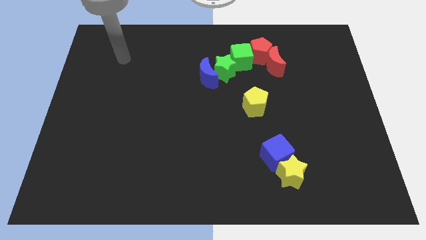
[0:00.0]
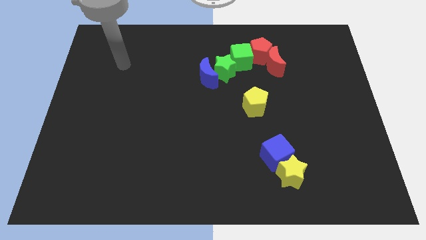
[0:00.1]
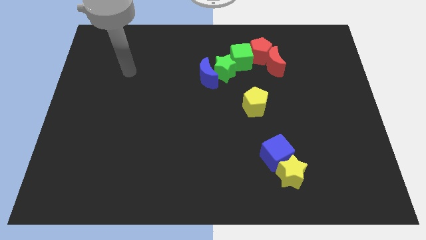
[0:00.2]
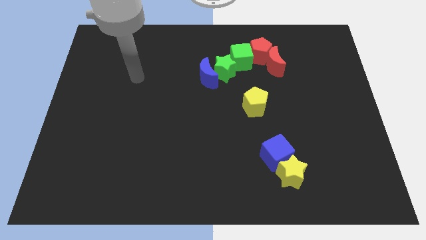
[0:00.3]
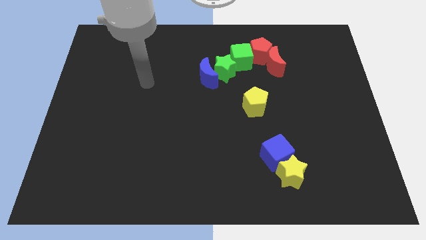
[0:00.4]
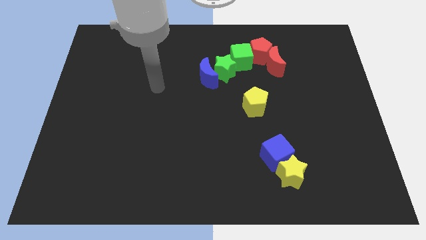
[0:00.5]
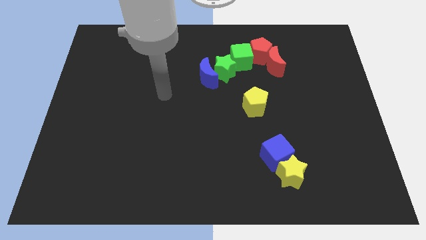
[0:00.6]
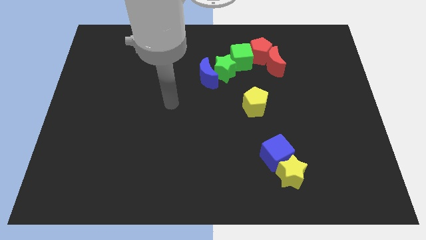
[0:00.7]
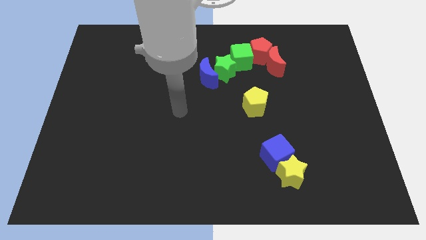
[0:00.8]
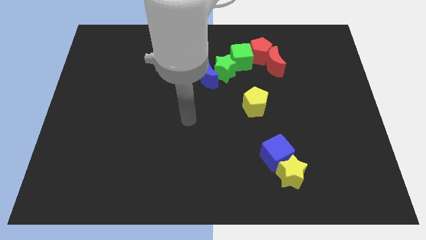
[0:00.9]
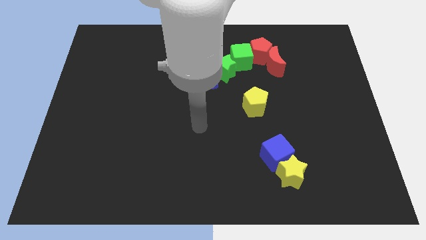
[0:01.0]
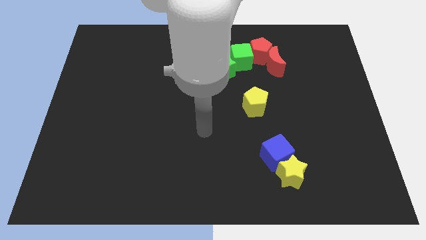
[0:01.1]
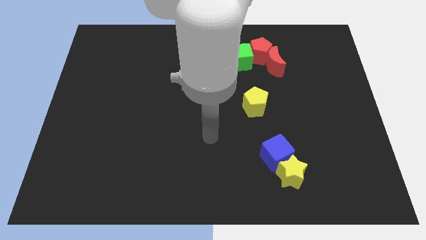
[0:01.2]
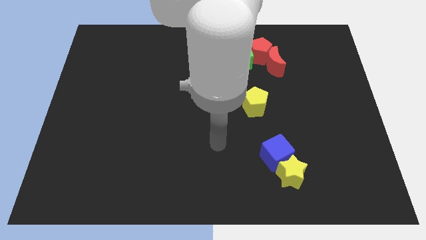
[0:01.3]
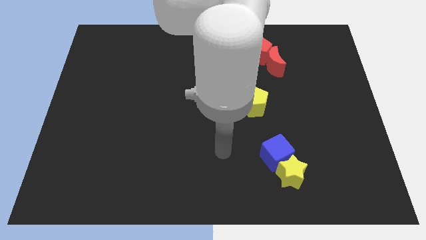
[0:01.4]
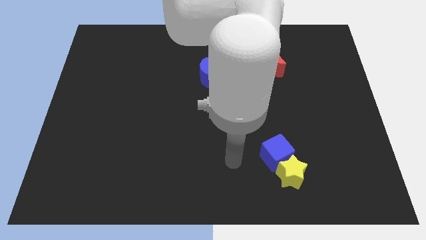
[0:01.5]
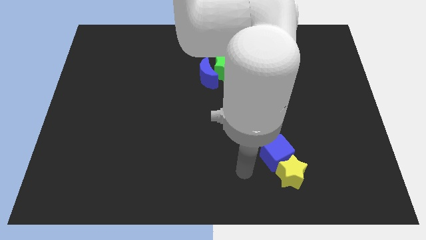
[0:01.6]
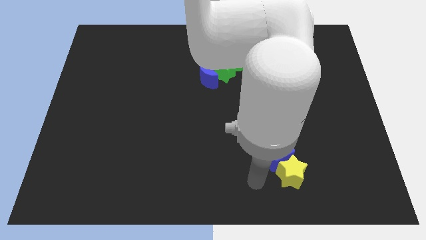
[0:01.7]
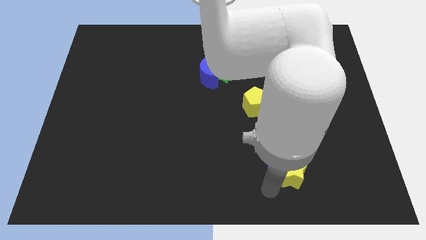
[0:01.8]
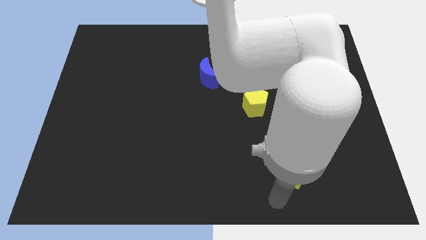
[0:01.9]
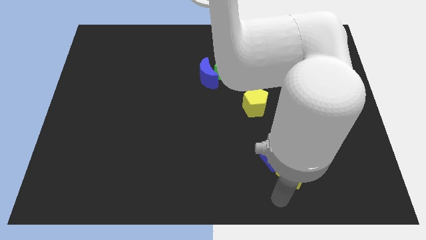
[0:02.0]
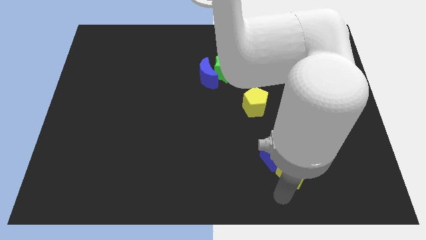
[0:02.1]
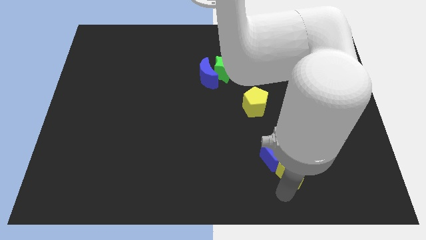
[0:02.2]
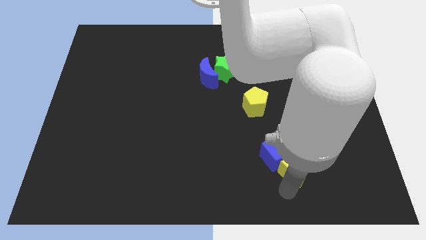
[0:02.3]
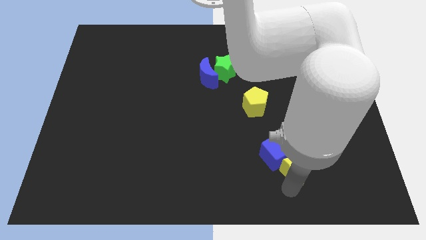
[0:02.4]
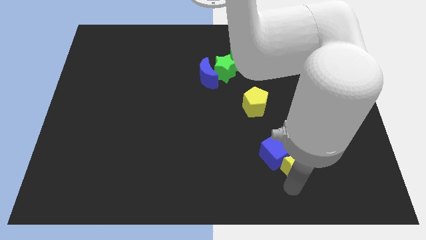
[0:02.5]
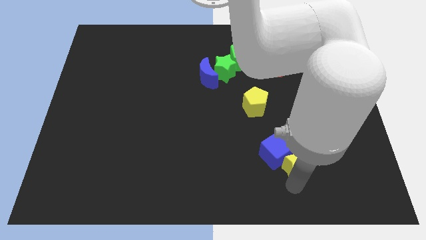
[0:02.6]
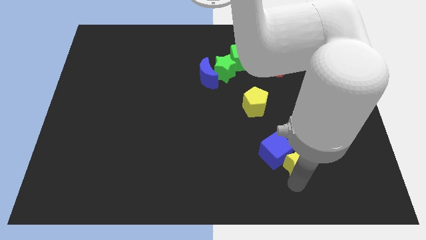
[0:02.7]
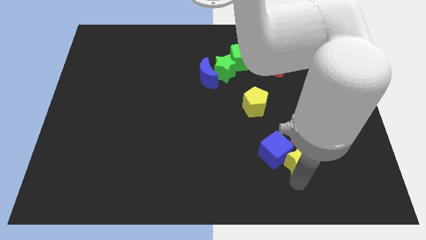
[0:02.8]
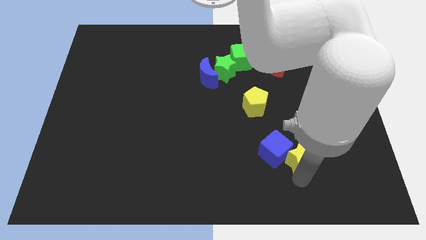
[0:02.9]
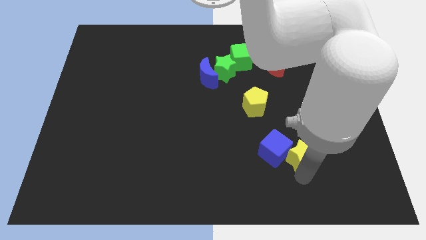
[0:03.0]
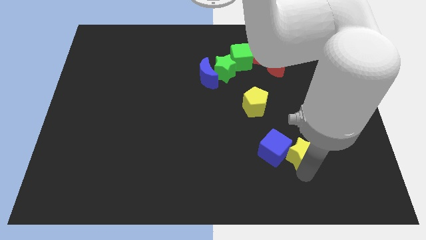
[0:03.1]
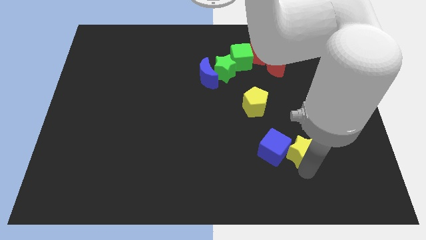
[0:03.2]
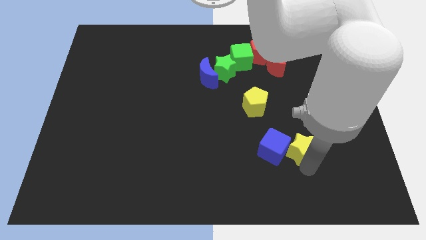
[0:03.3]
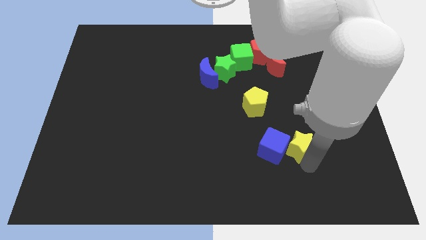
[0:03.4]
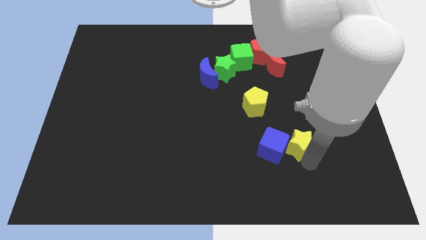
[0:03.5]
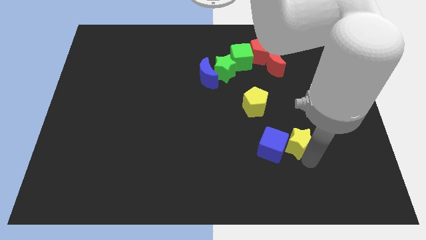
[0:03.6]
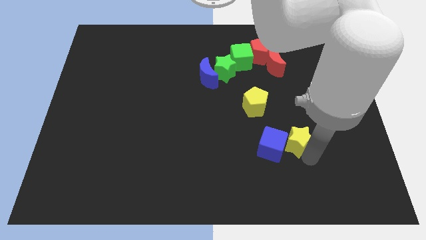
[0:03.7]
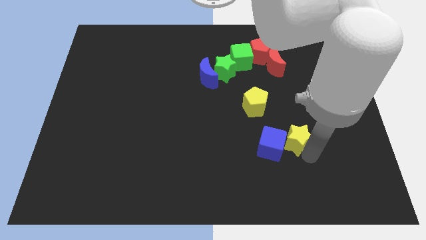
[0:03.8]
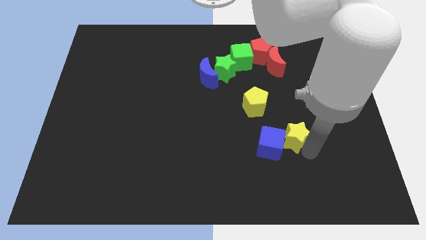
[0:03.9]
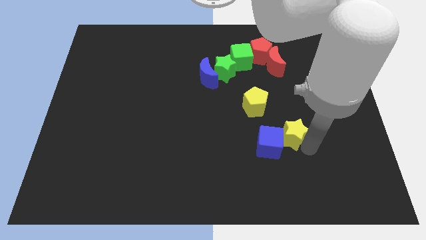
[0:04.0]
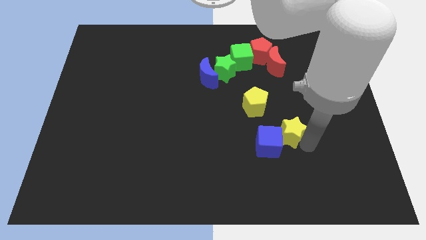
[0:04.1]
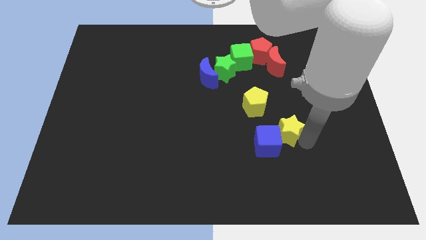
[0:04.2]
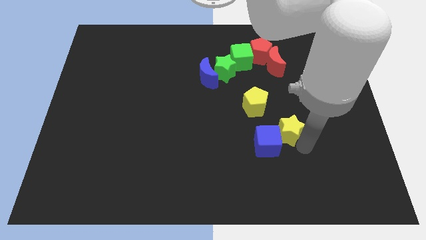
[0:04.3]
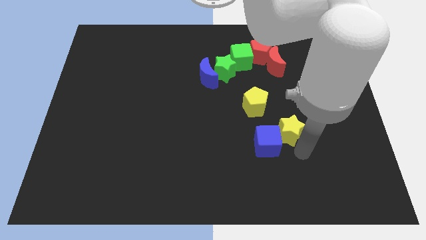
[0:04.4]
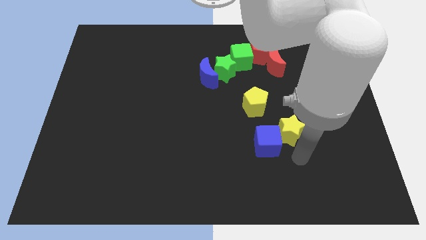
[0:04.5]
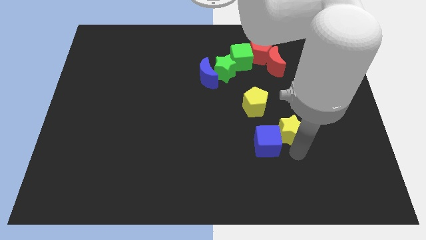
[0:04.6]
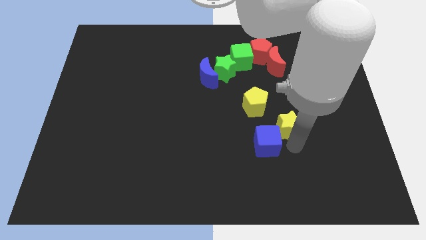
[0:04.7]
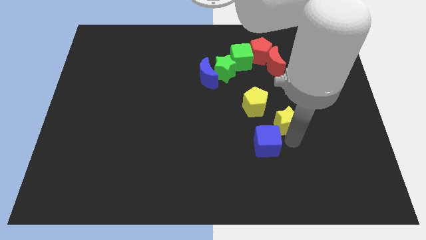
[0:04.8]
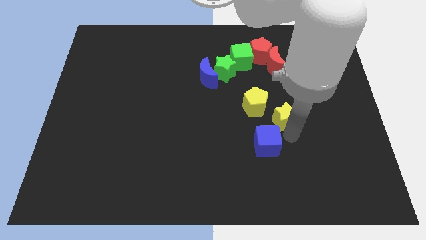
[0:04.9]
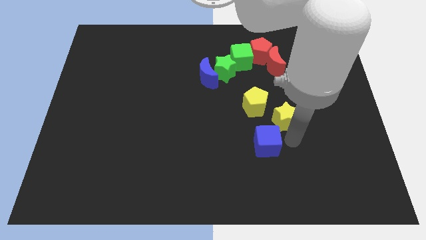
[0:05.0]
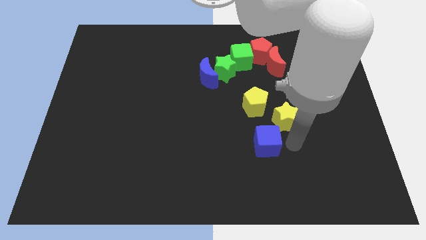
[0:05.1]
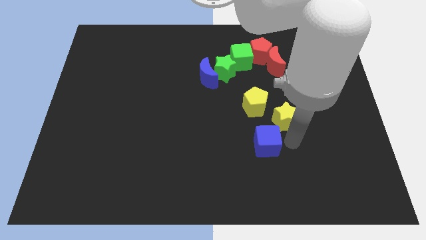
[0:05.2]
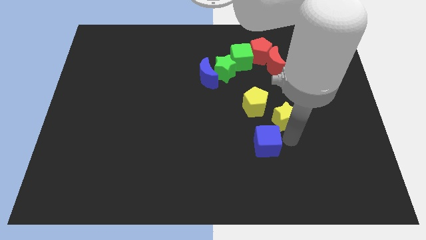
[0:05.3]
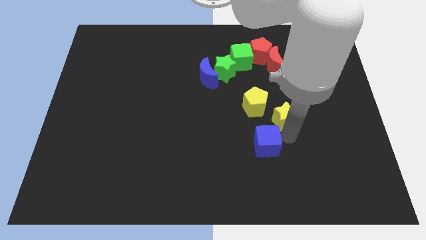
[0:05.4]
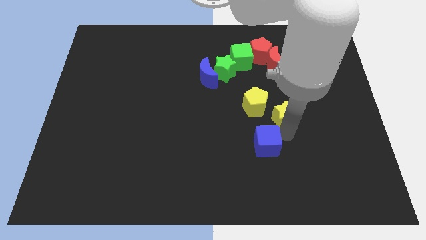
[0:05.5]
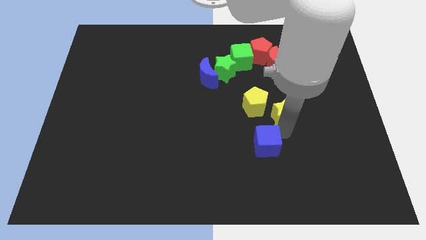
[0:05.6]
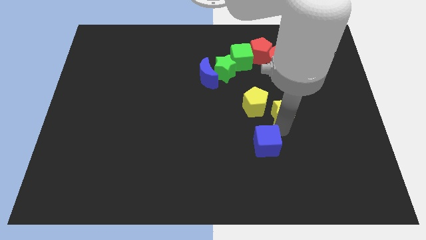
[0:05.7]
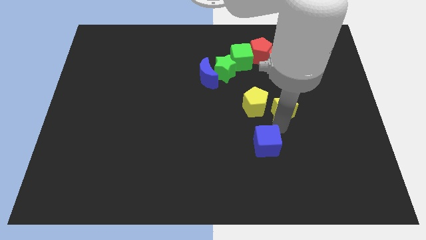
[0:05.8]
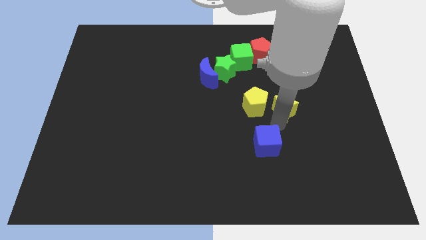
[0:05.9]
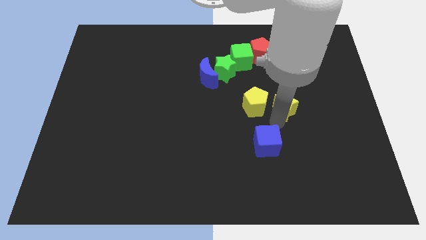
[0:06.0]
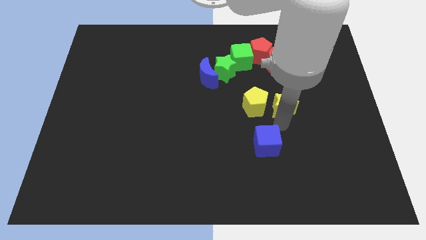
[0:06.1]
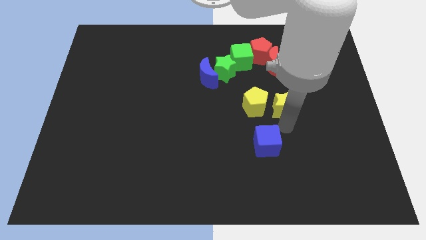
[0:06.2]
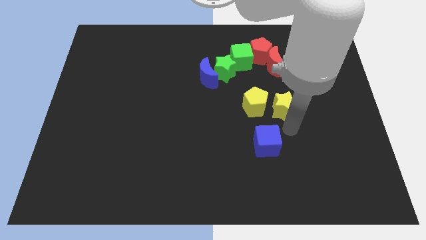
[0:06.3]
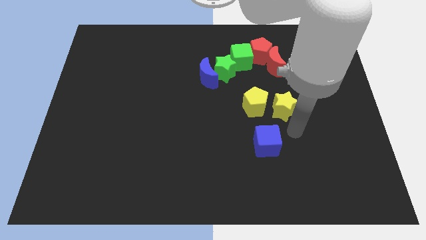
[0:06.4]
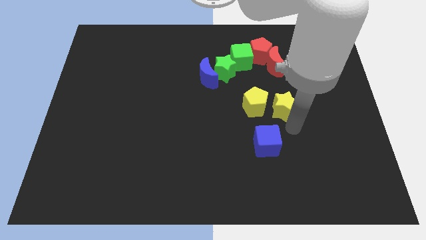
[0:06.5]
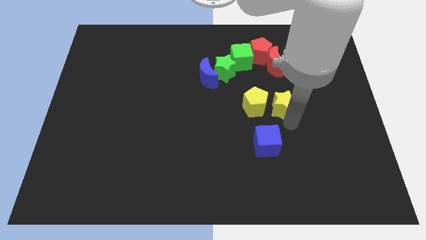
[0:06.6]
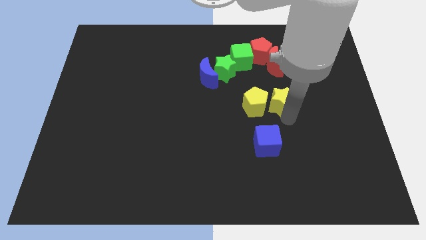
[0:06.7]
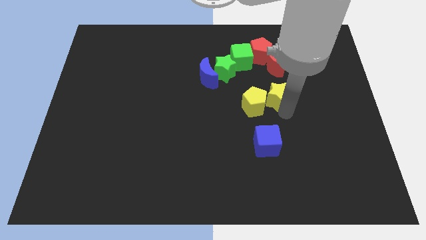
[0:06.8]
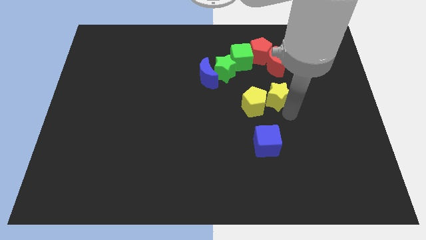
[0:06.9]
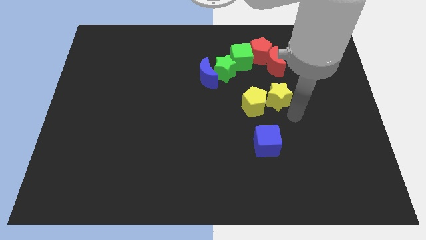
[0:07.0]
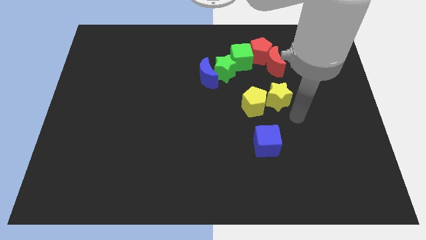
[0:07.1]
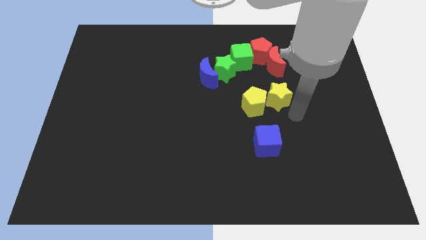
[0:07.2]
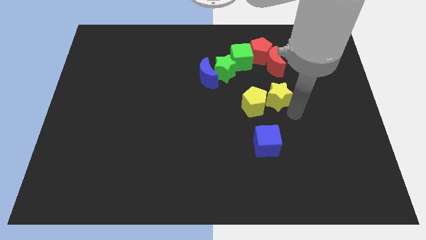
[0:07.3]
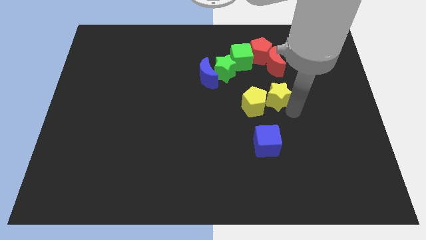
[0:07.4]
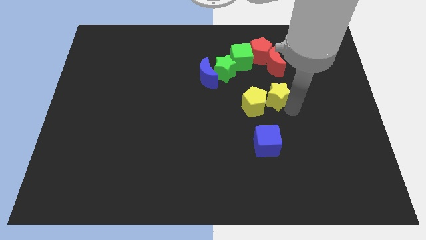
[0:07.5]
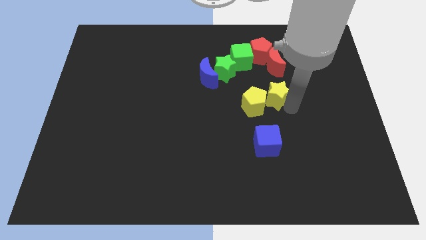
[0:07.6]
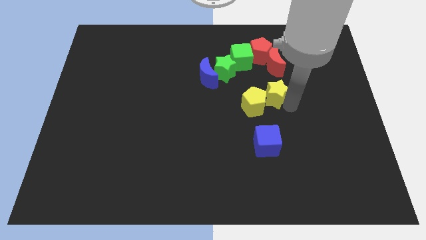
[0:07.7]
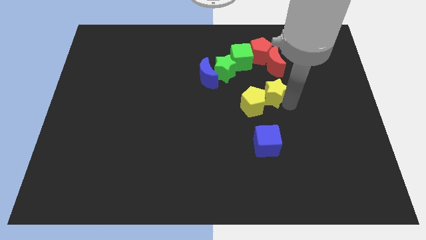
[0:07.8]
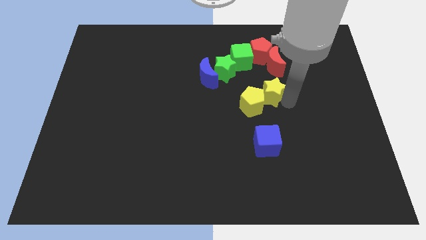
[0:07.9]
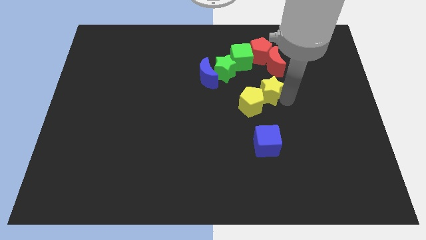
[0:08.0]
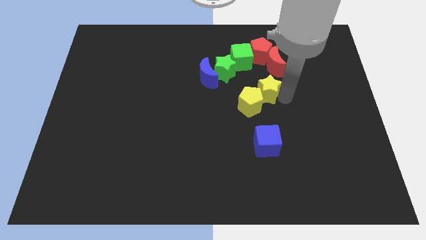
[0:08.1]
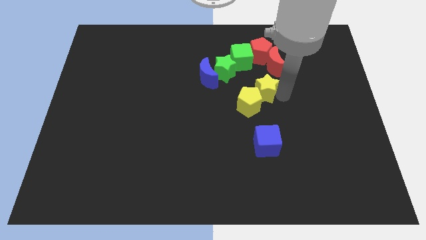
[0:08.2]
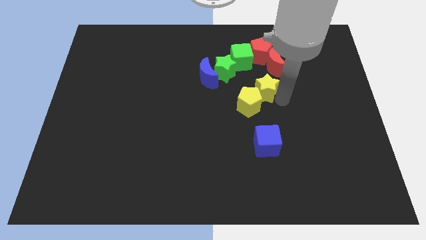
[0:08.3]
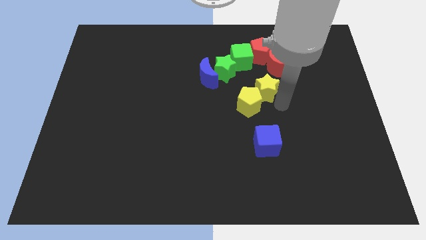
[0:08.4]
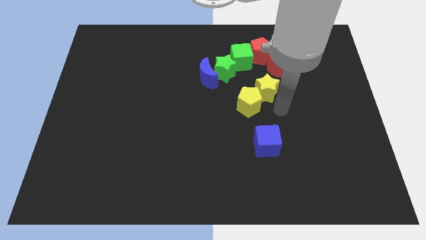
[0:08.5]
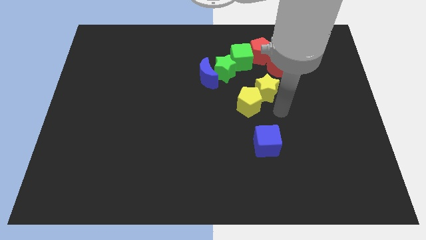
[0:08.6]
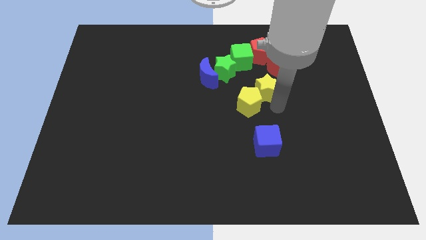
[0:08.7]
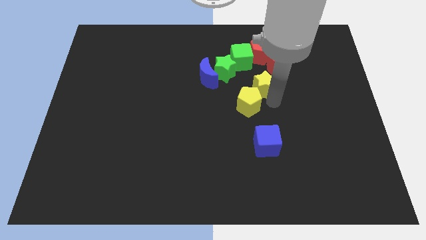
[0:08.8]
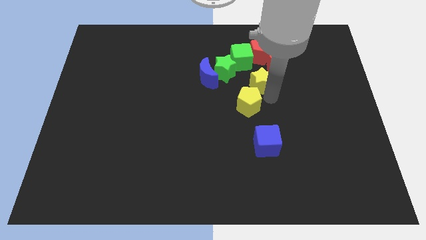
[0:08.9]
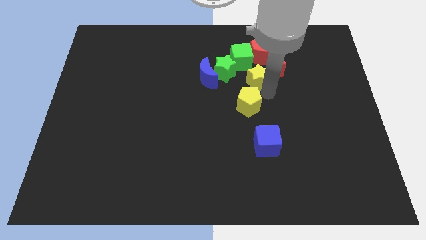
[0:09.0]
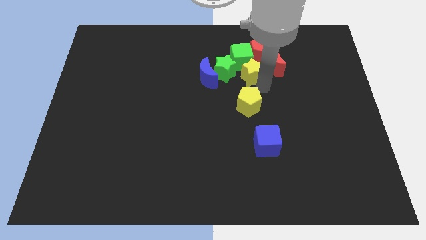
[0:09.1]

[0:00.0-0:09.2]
push the yellow star close to the green cube
